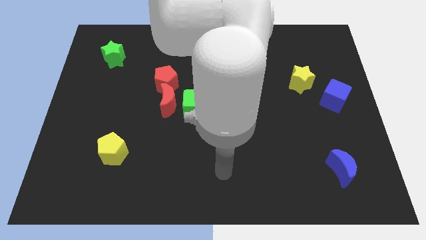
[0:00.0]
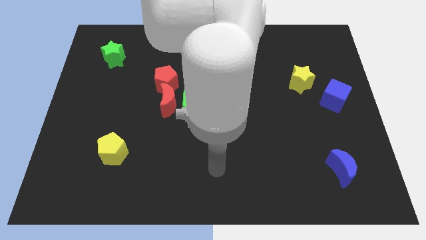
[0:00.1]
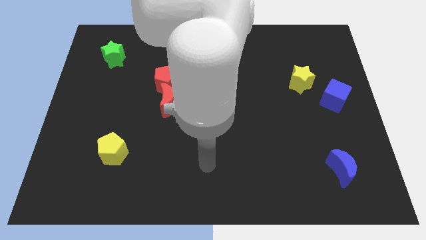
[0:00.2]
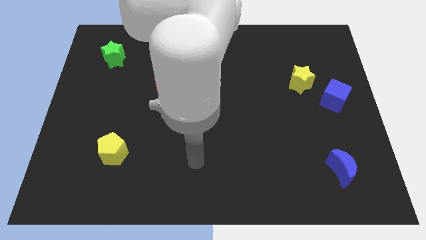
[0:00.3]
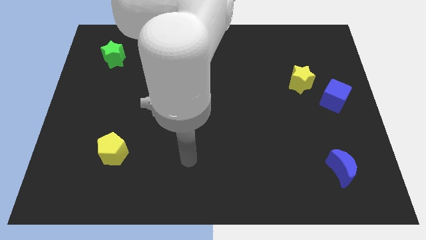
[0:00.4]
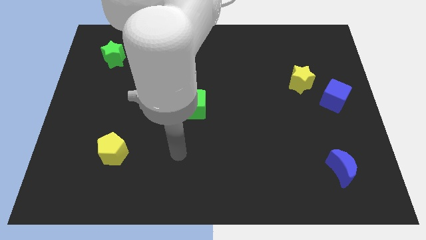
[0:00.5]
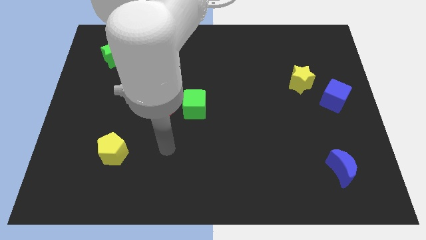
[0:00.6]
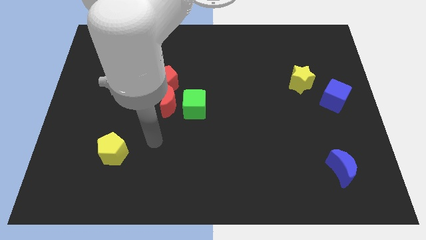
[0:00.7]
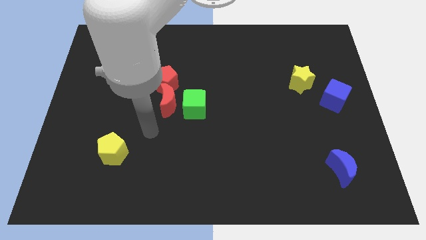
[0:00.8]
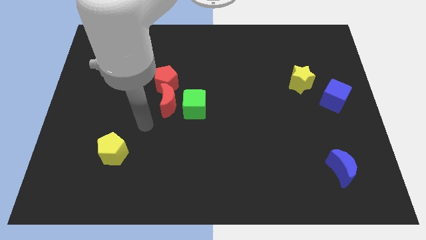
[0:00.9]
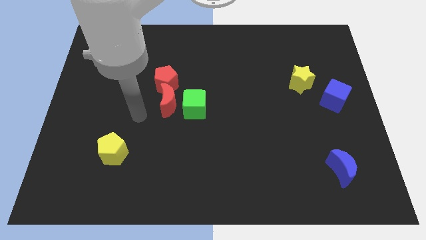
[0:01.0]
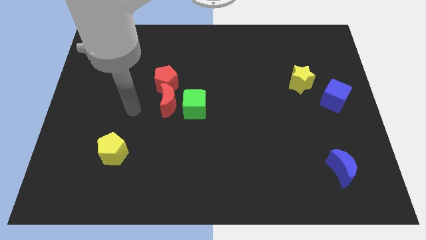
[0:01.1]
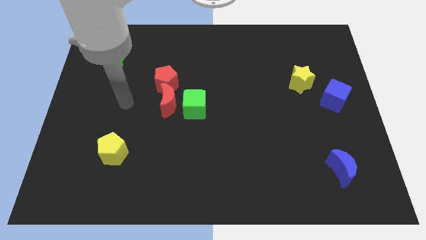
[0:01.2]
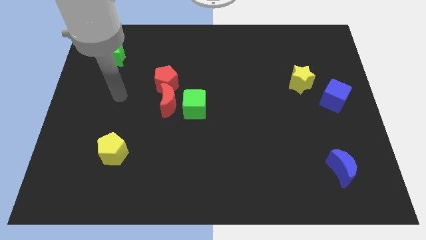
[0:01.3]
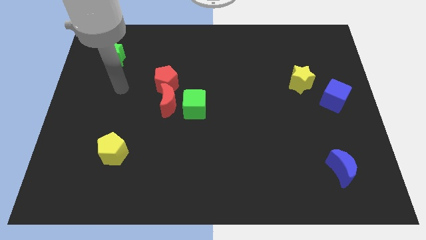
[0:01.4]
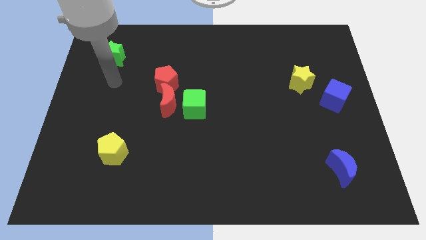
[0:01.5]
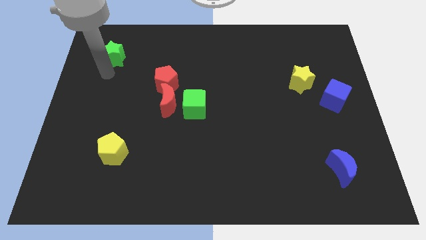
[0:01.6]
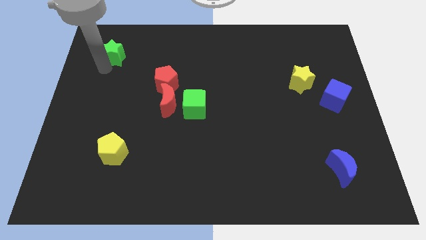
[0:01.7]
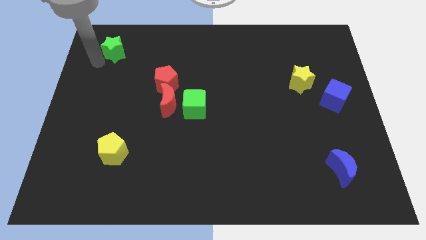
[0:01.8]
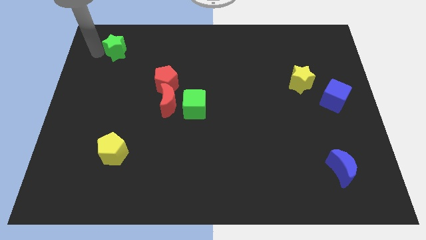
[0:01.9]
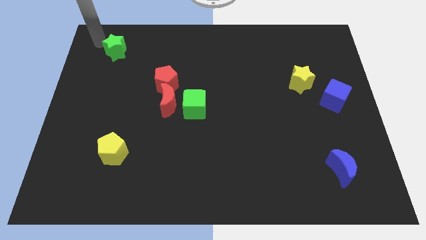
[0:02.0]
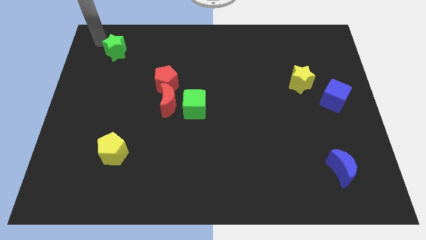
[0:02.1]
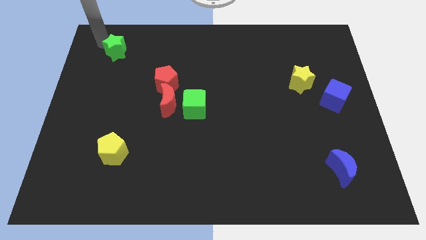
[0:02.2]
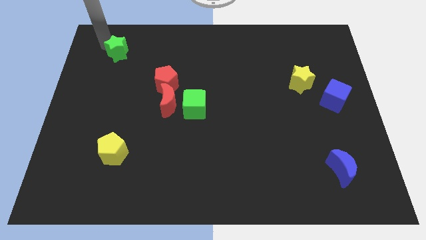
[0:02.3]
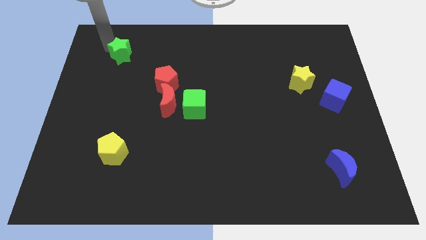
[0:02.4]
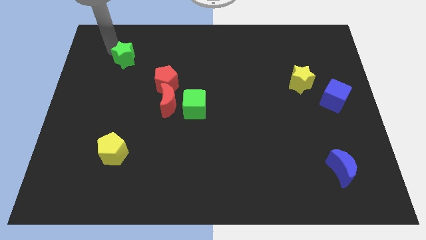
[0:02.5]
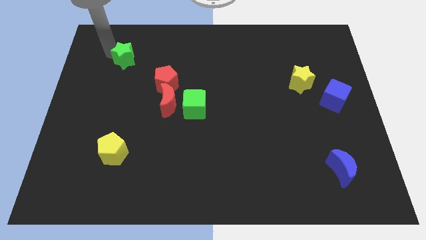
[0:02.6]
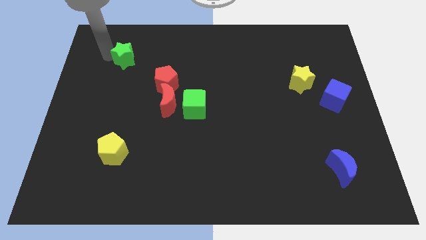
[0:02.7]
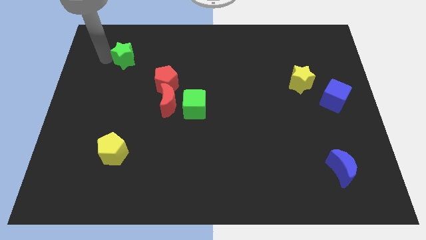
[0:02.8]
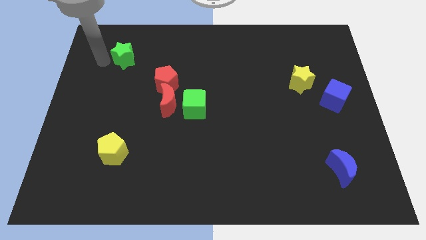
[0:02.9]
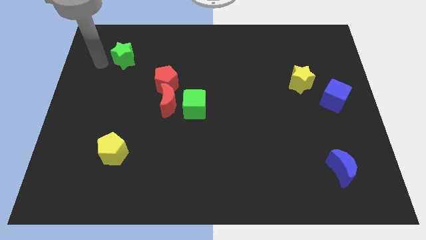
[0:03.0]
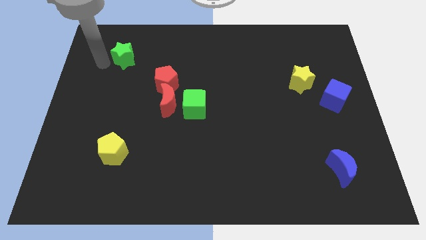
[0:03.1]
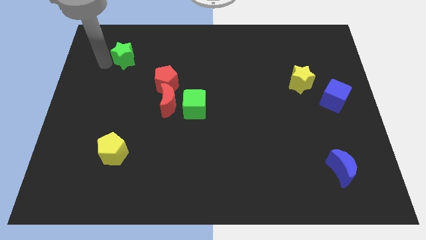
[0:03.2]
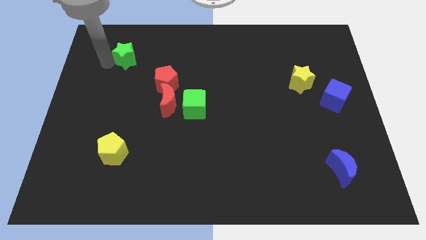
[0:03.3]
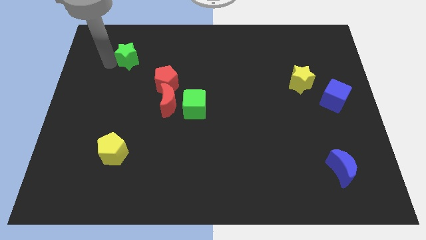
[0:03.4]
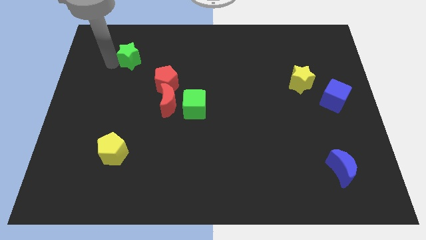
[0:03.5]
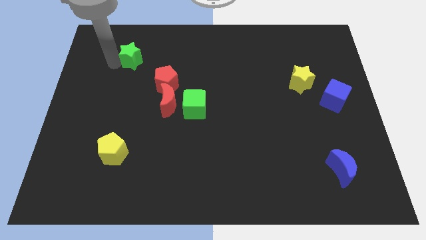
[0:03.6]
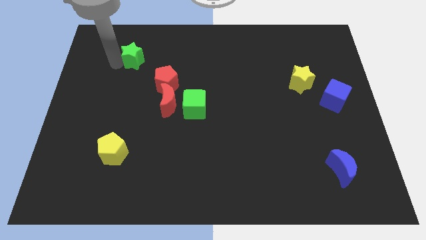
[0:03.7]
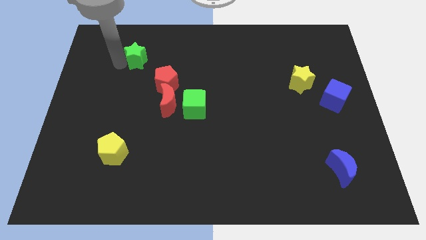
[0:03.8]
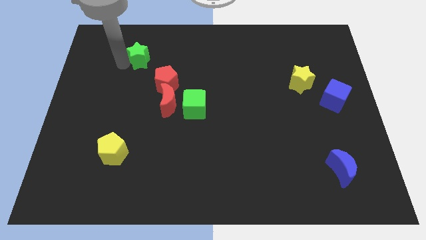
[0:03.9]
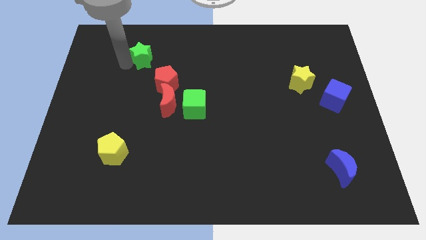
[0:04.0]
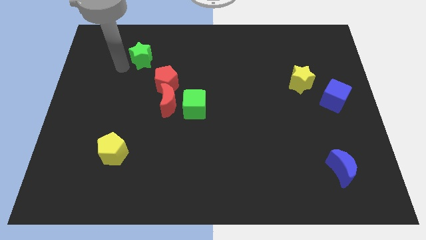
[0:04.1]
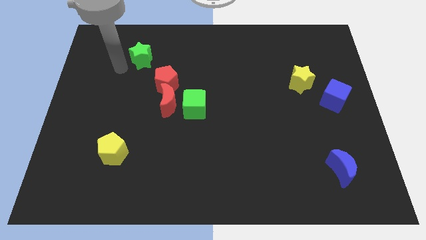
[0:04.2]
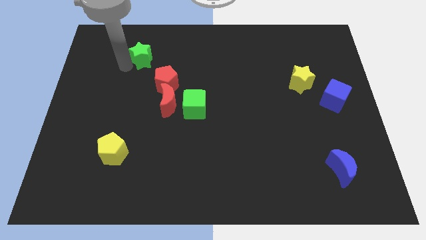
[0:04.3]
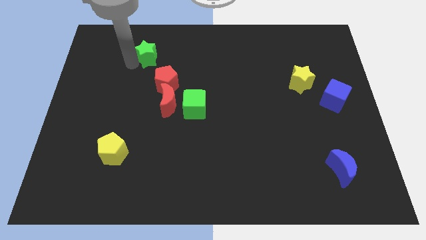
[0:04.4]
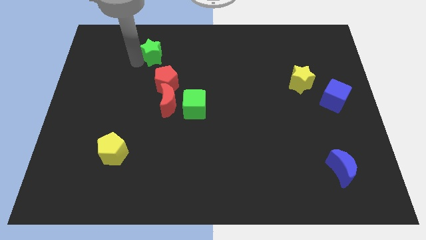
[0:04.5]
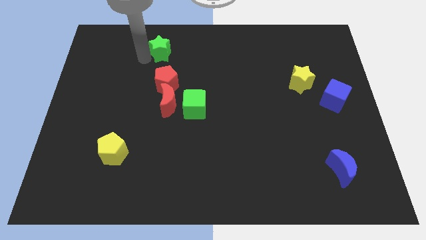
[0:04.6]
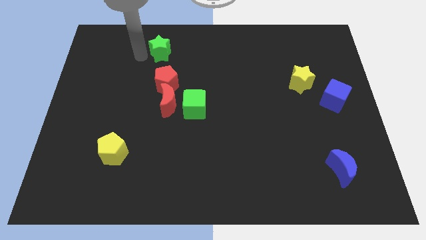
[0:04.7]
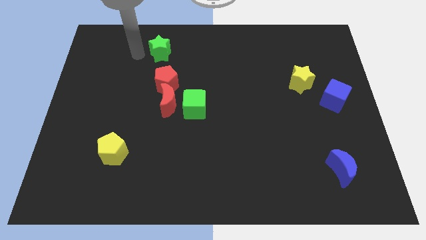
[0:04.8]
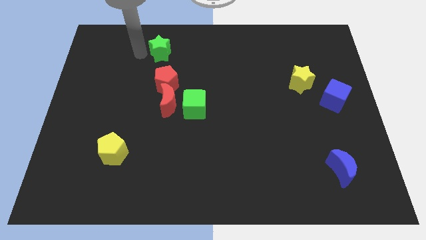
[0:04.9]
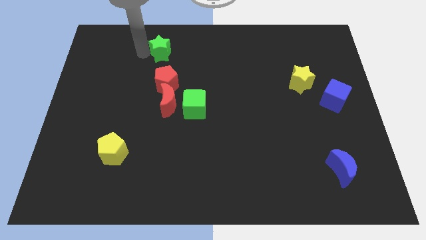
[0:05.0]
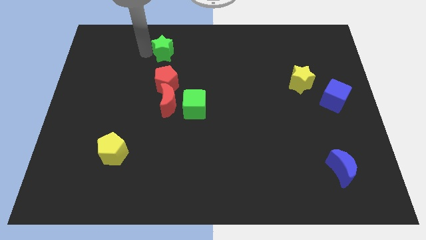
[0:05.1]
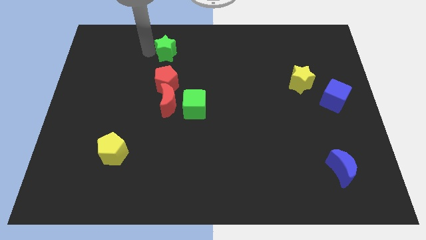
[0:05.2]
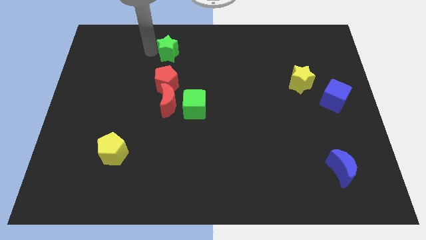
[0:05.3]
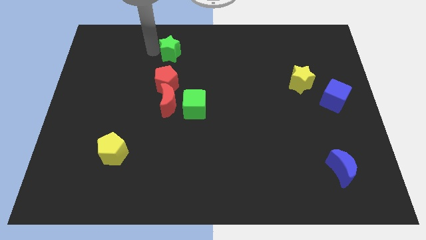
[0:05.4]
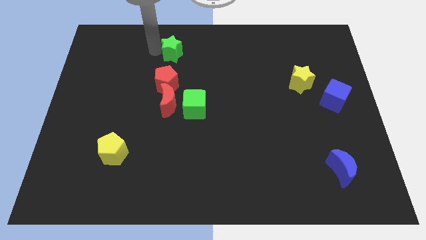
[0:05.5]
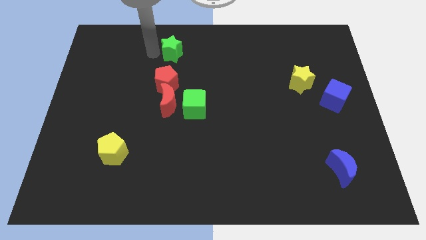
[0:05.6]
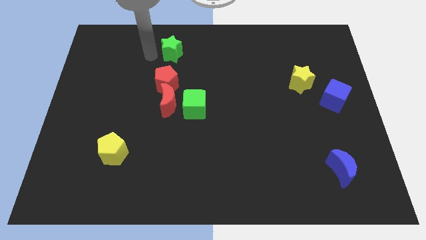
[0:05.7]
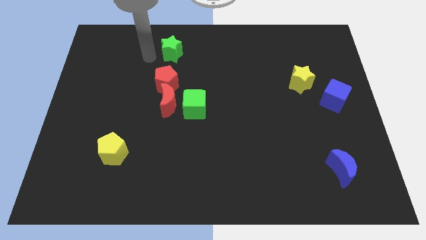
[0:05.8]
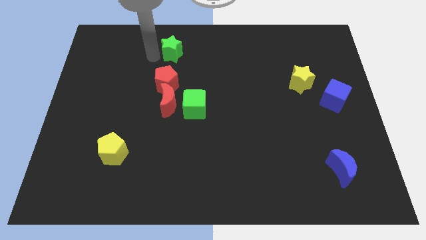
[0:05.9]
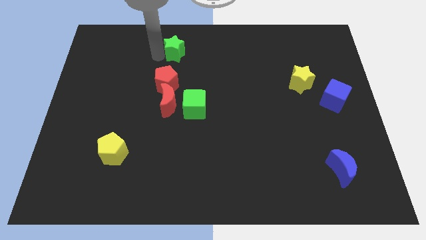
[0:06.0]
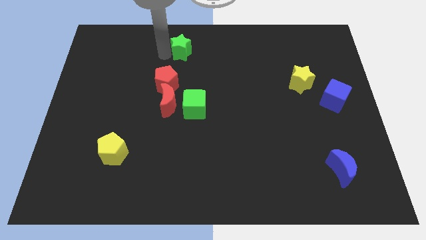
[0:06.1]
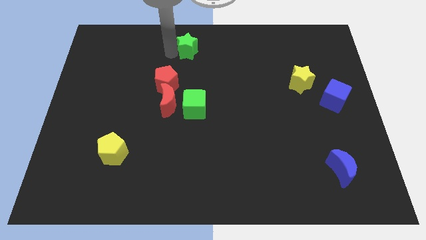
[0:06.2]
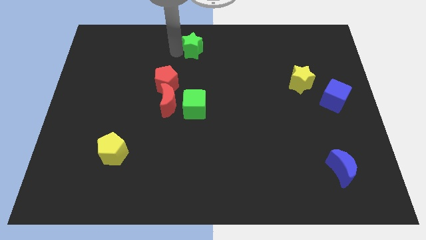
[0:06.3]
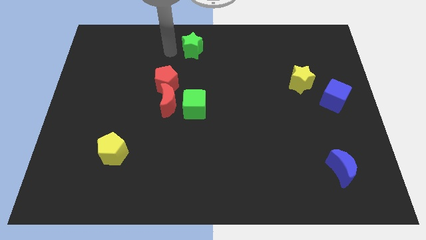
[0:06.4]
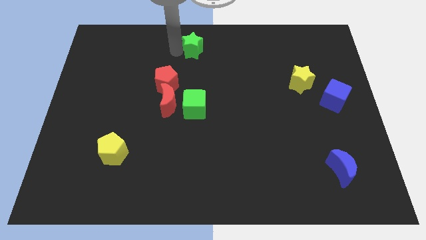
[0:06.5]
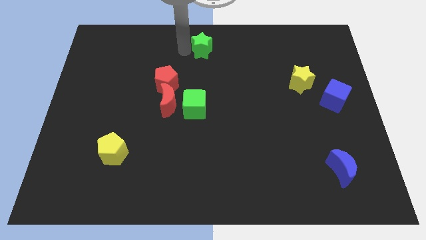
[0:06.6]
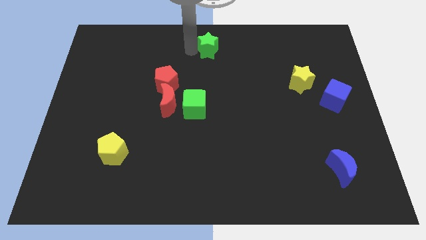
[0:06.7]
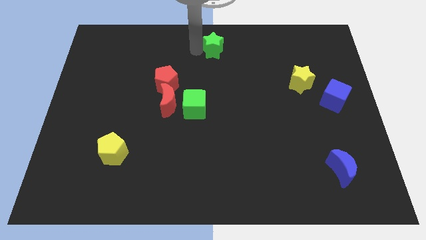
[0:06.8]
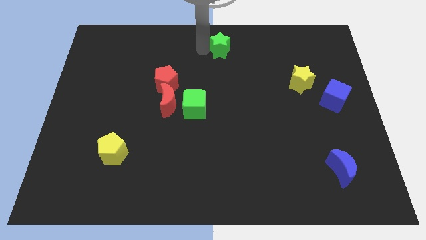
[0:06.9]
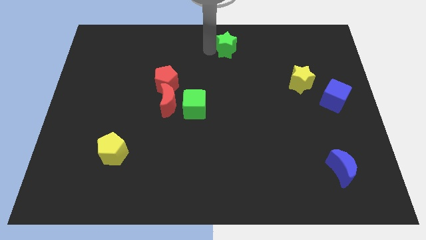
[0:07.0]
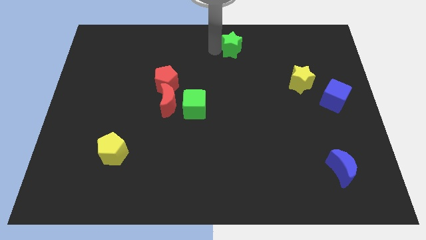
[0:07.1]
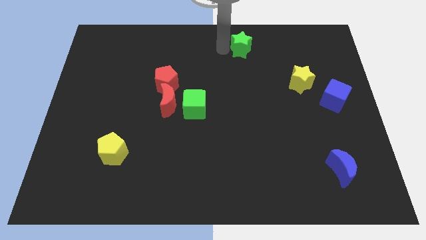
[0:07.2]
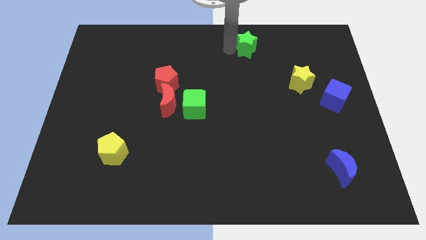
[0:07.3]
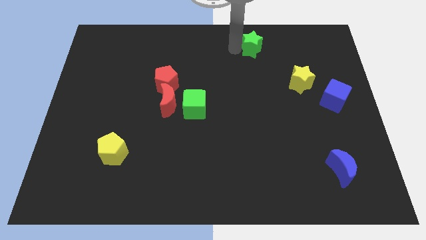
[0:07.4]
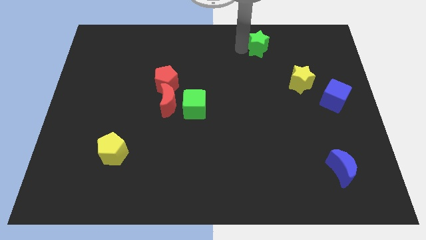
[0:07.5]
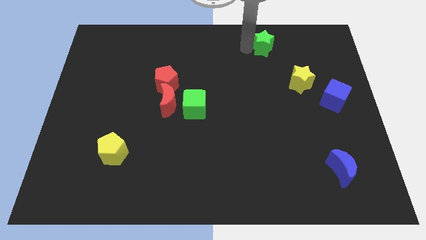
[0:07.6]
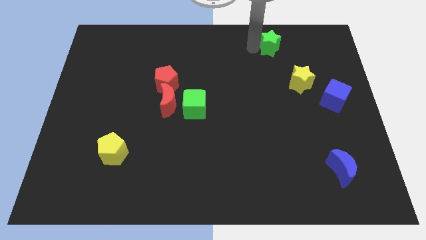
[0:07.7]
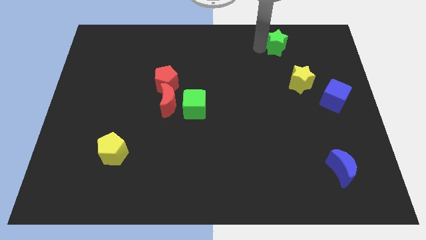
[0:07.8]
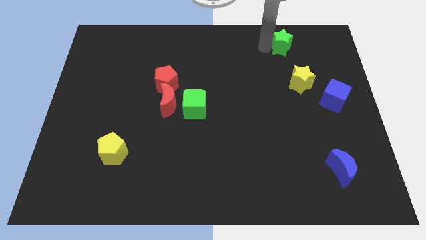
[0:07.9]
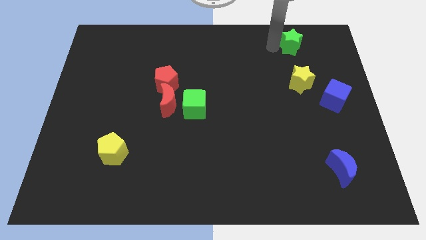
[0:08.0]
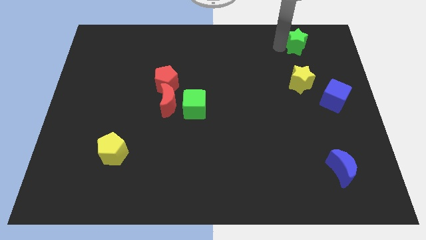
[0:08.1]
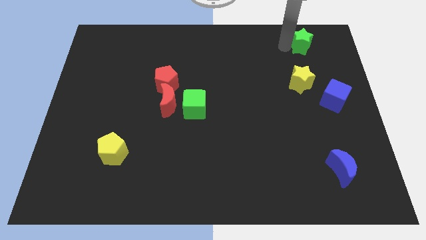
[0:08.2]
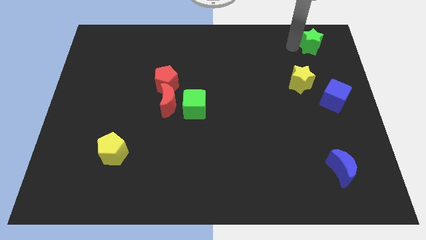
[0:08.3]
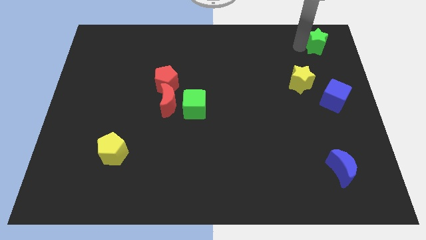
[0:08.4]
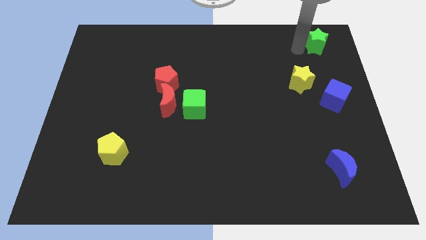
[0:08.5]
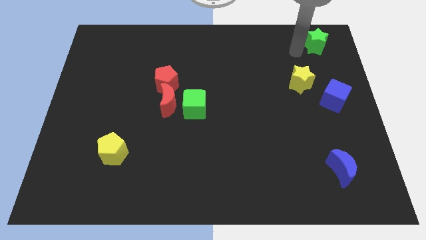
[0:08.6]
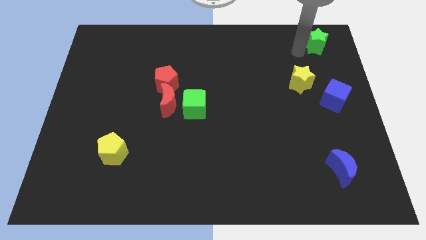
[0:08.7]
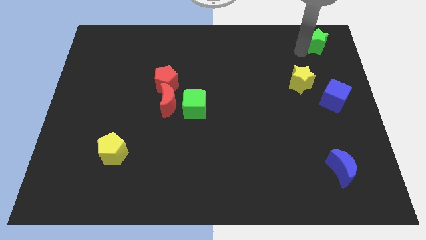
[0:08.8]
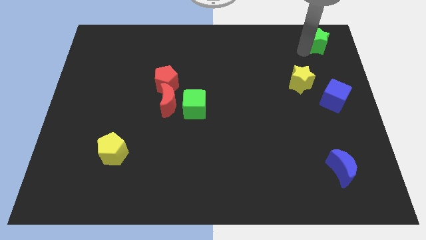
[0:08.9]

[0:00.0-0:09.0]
slide the green star to the top right corner
